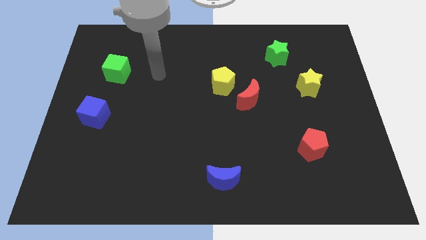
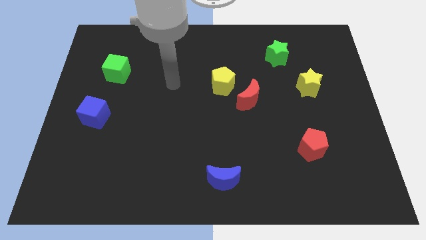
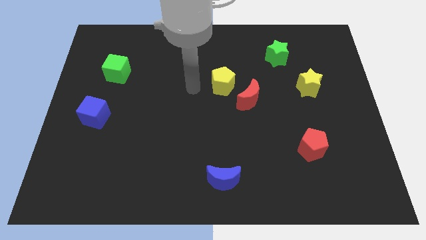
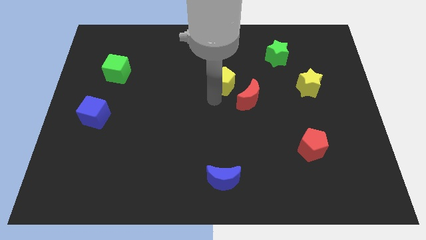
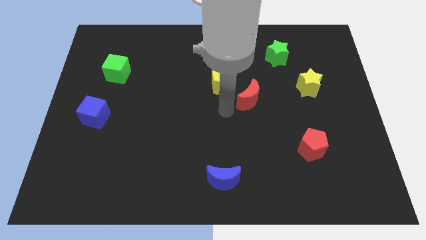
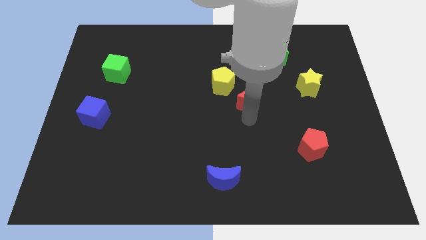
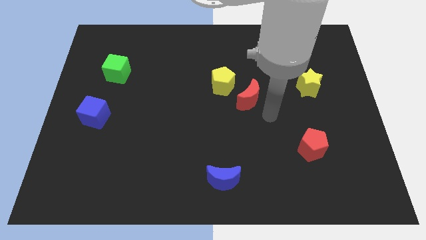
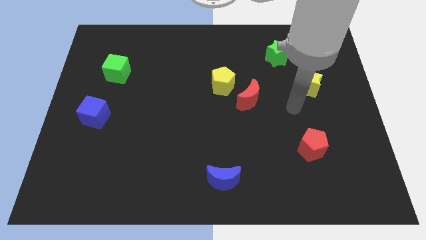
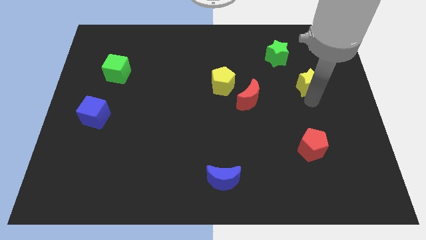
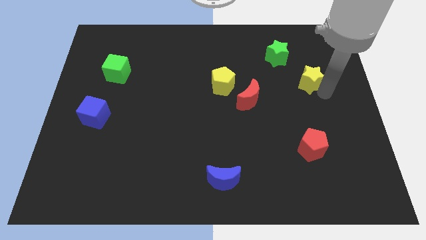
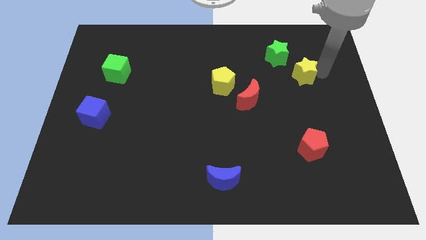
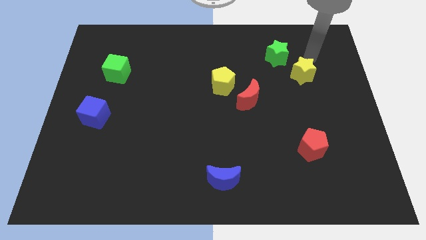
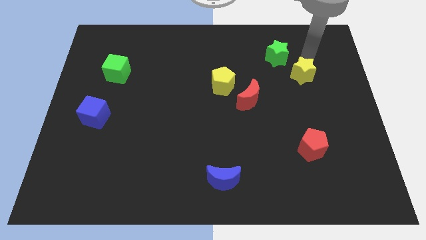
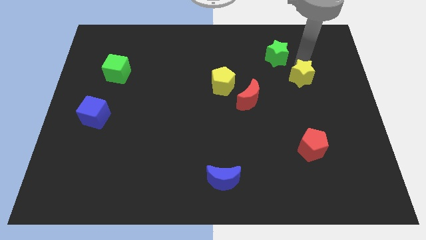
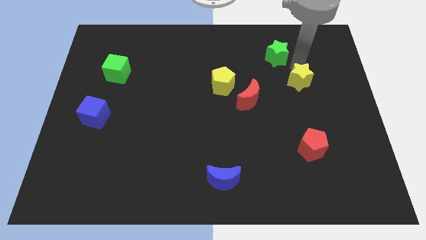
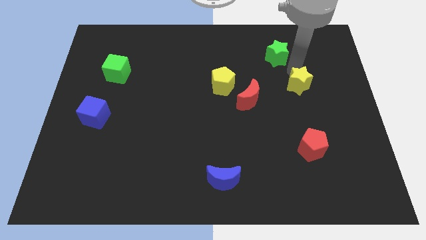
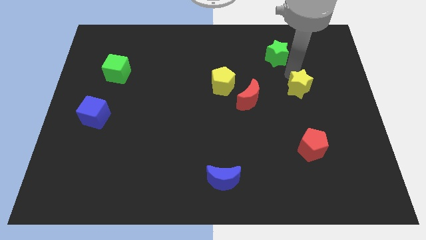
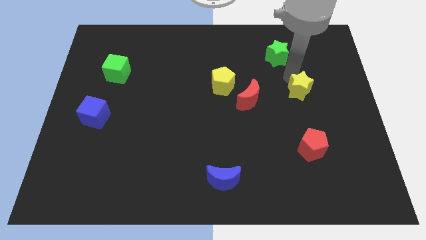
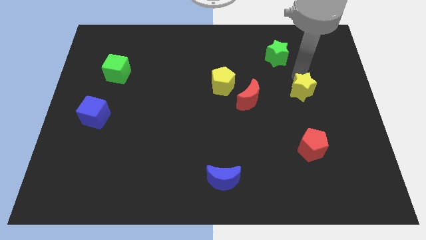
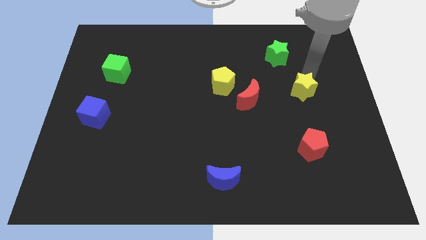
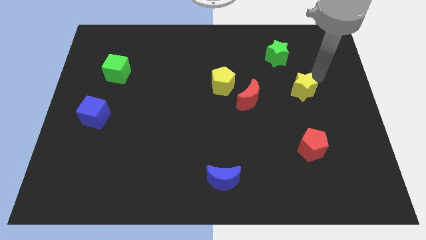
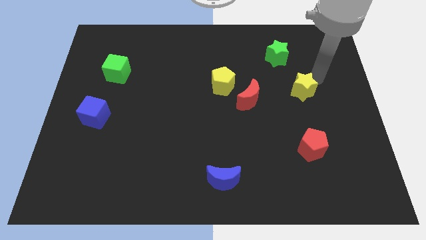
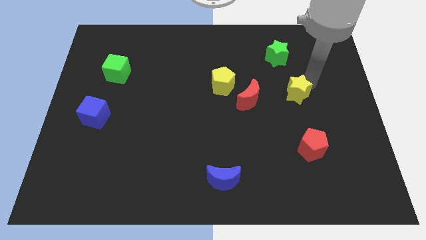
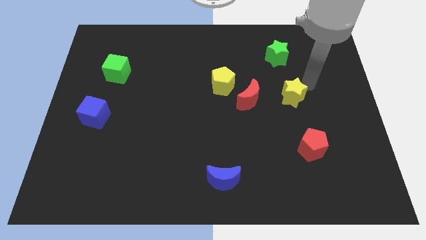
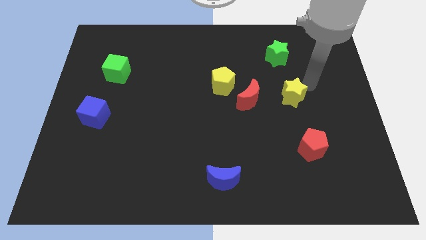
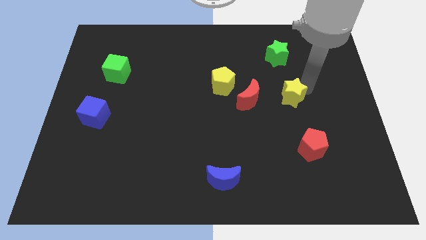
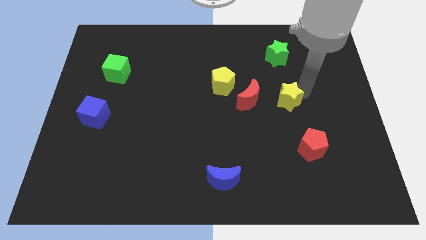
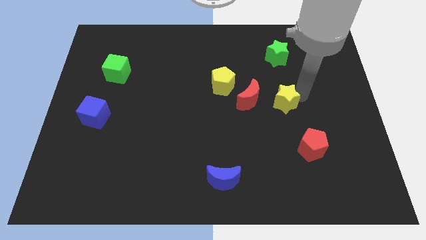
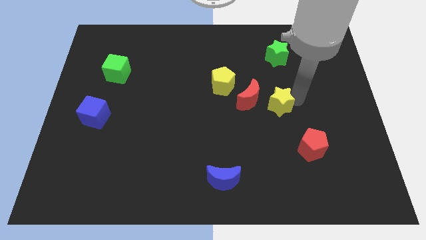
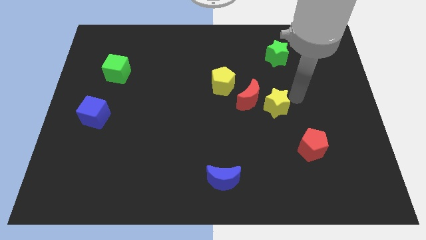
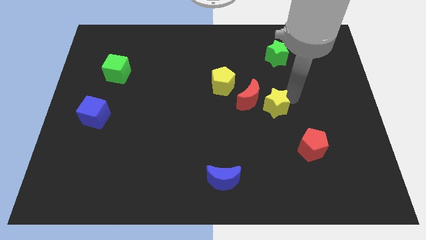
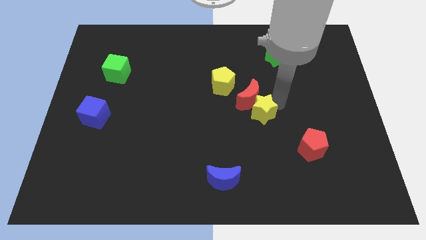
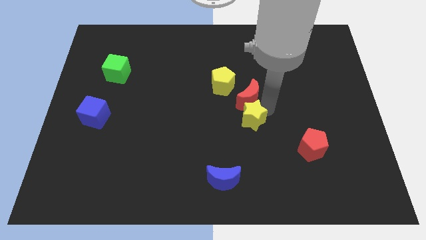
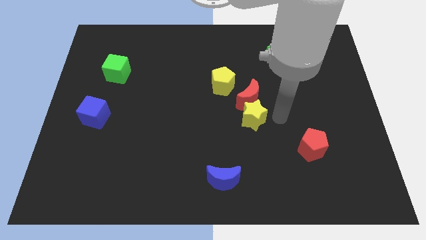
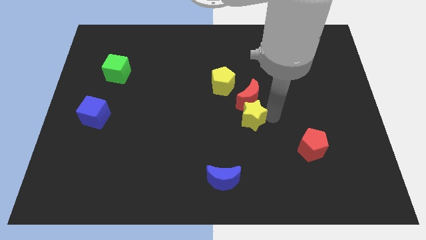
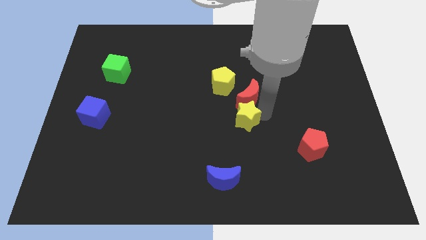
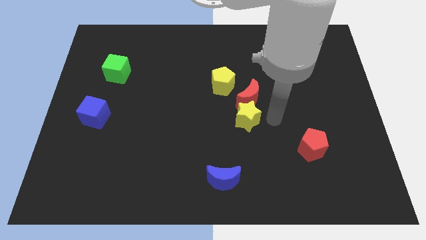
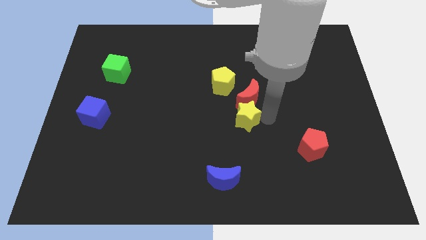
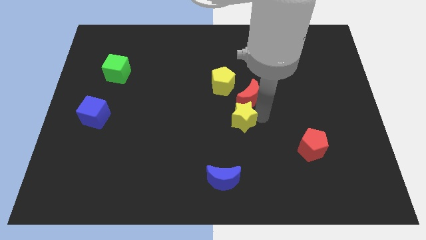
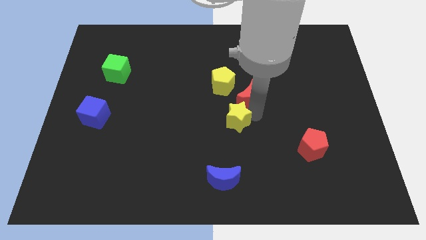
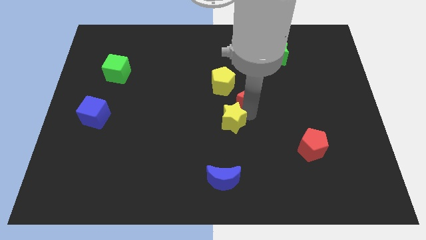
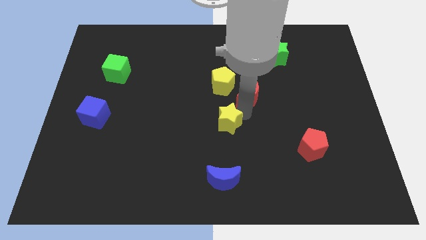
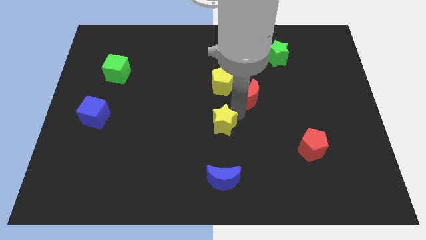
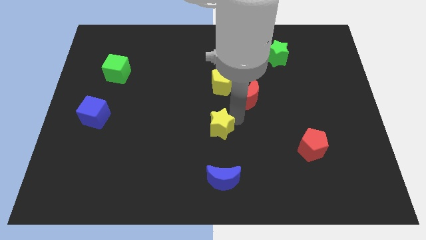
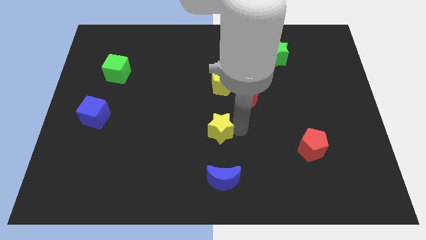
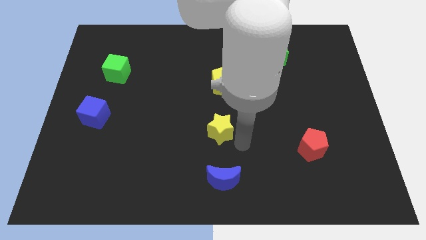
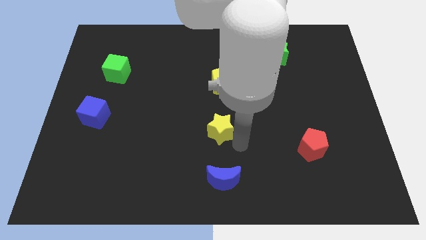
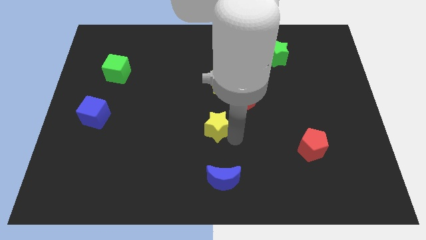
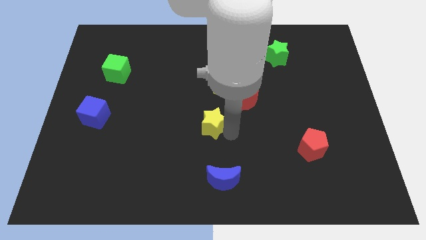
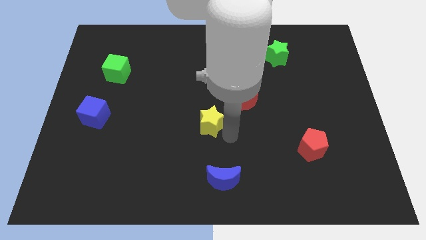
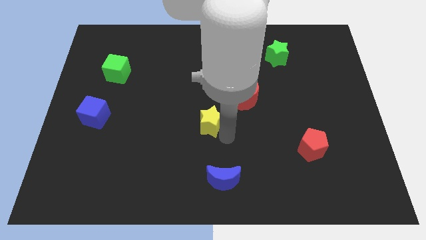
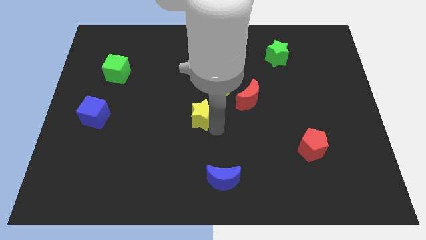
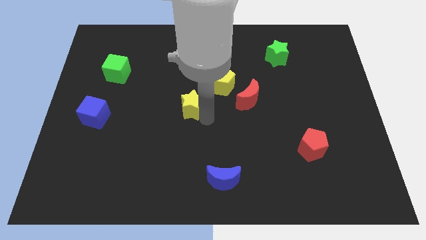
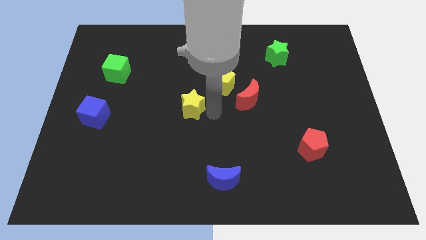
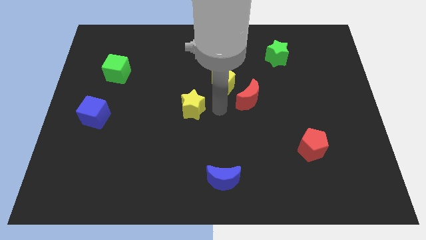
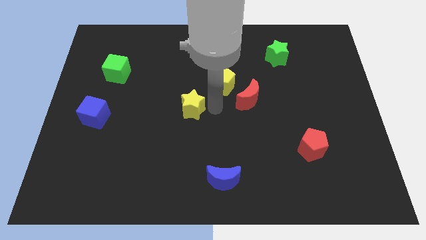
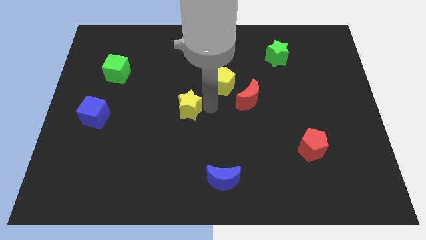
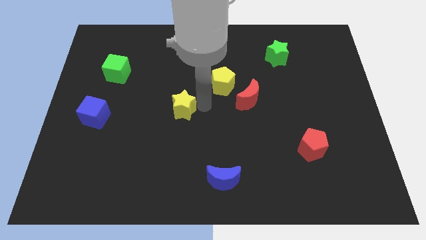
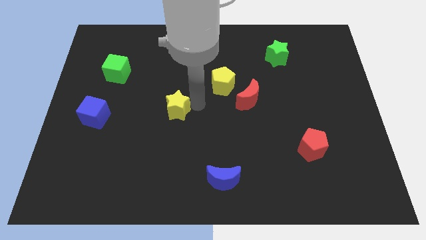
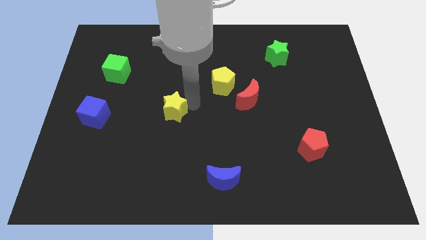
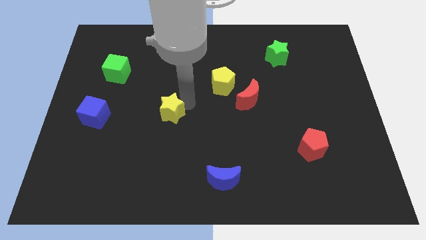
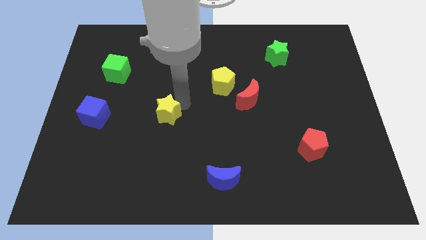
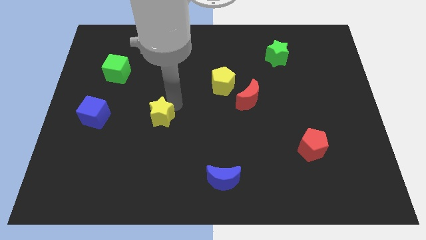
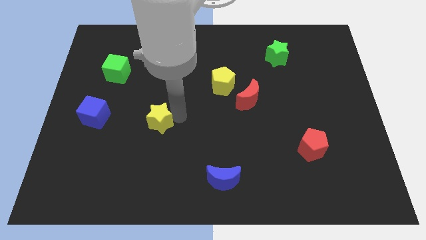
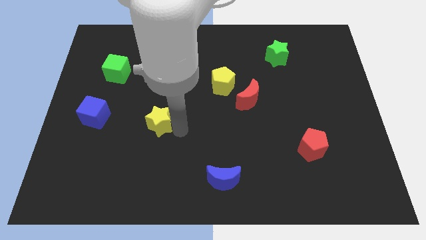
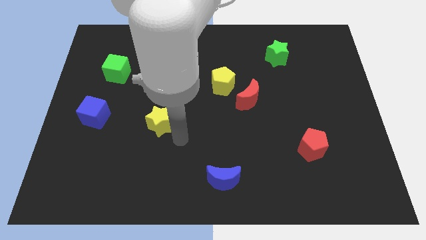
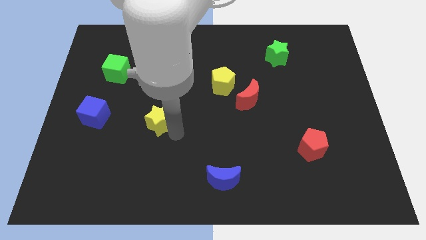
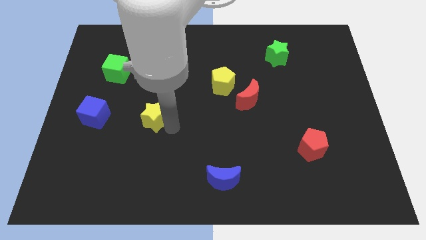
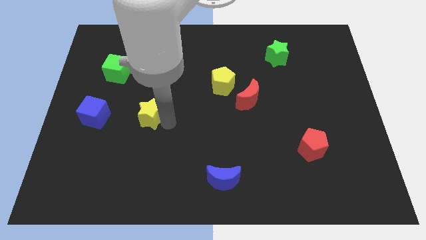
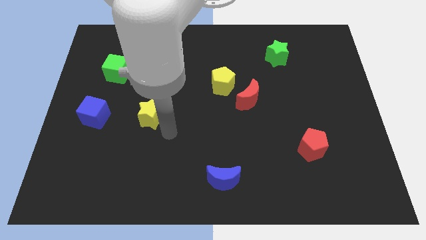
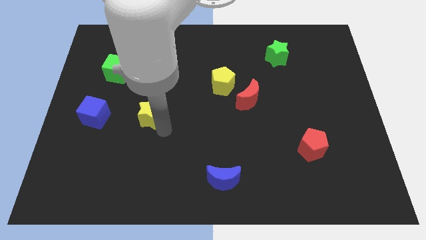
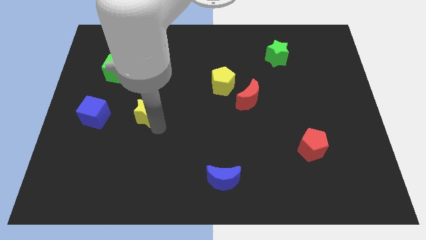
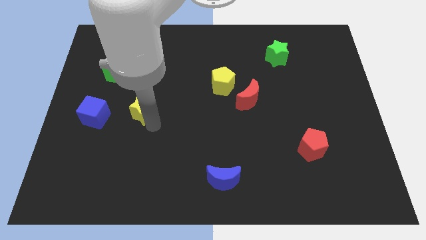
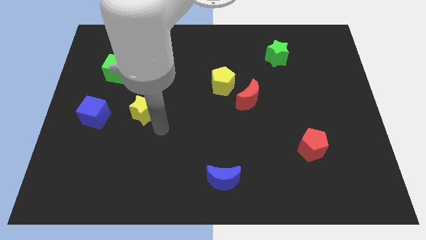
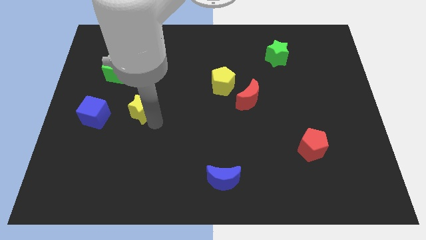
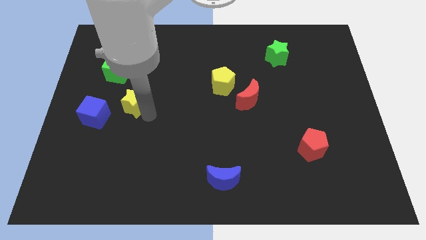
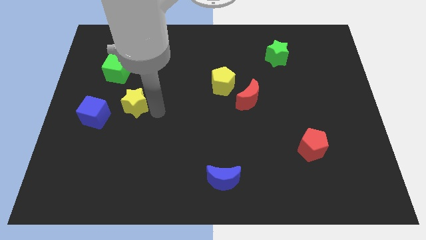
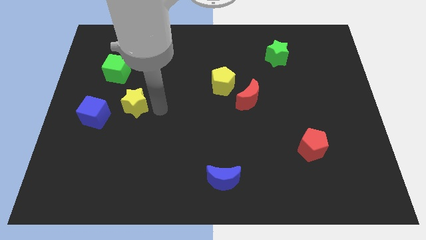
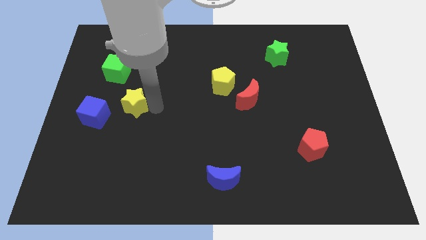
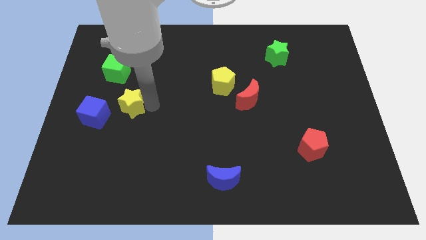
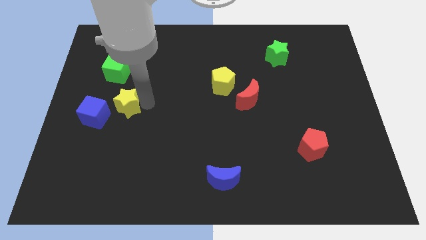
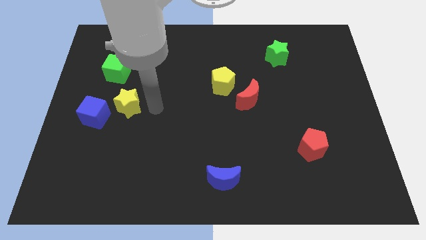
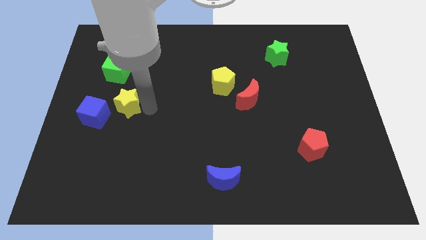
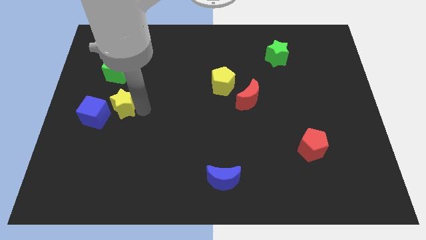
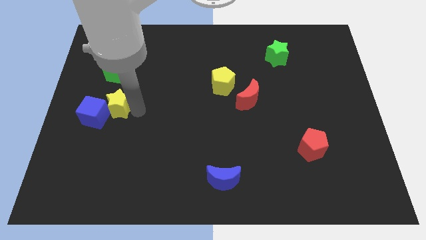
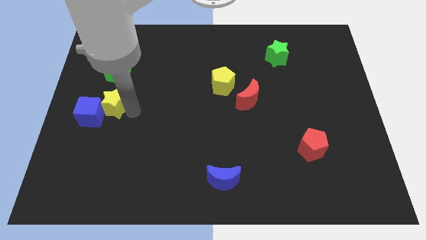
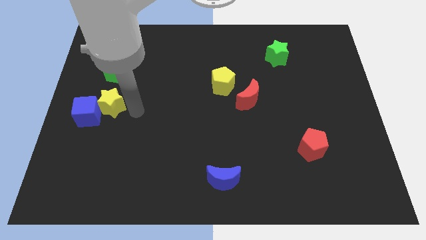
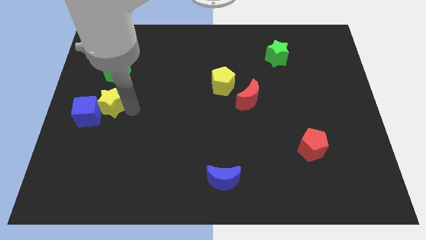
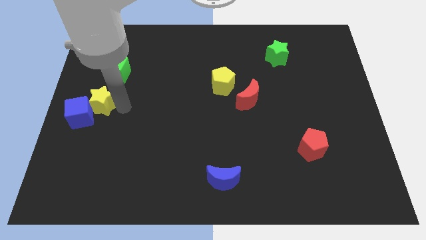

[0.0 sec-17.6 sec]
move the yellow star to the left side of the board
